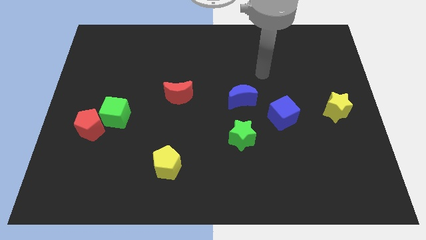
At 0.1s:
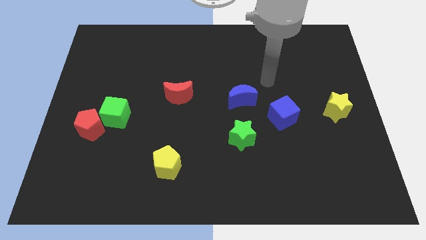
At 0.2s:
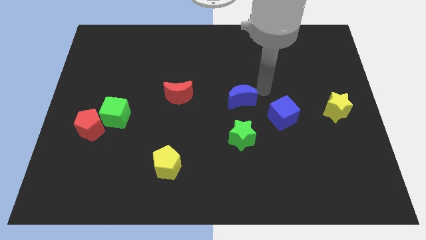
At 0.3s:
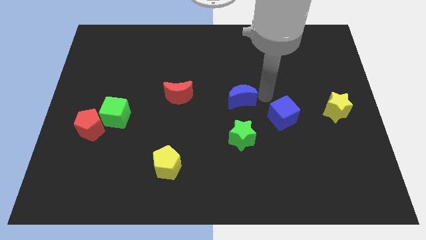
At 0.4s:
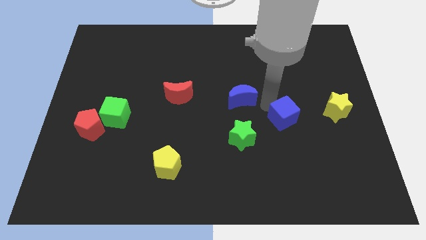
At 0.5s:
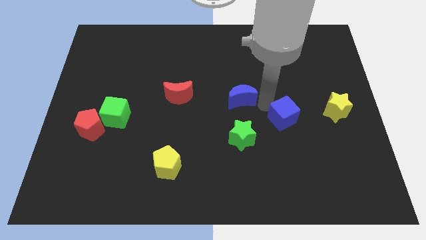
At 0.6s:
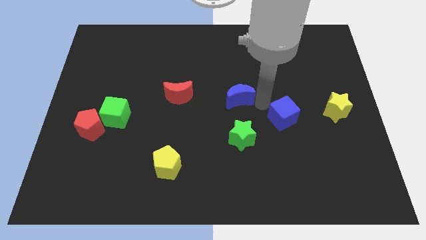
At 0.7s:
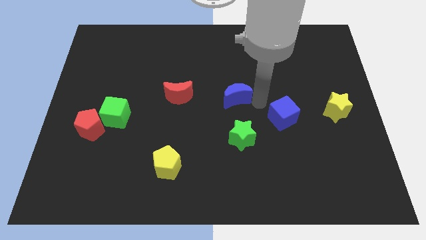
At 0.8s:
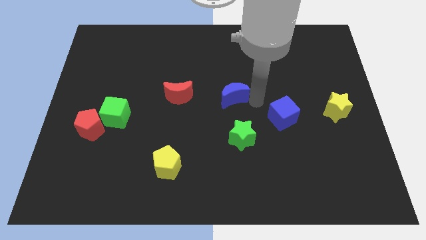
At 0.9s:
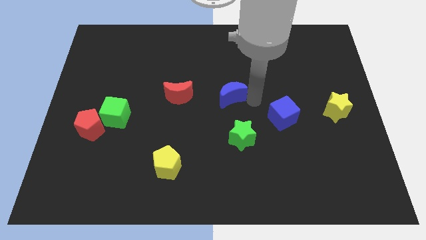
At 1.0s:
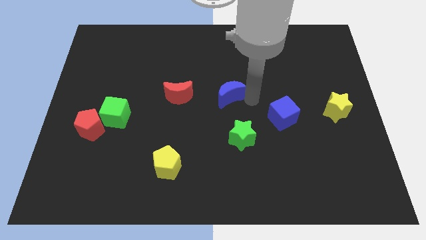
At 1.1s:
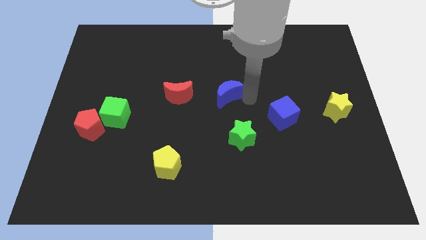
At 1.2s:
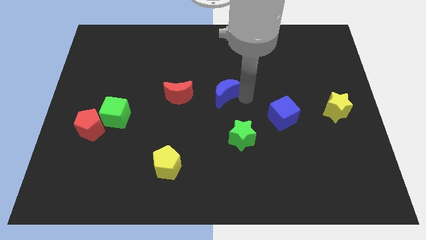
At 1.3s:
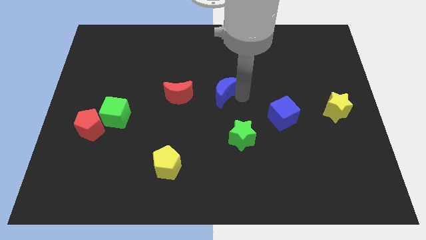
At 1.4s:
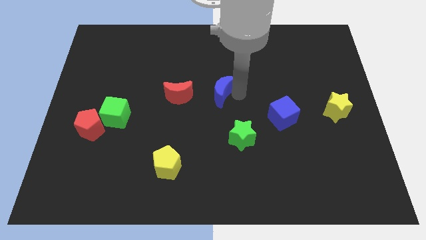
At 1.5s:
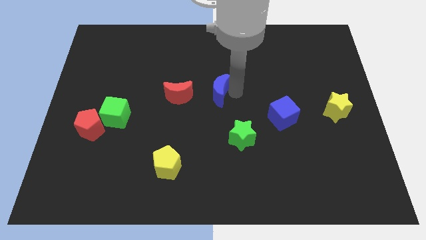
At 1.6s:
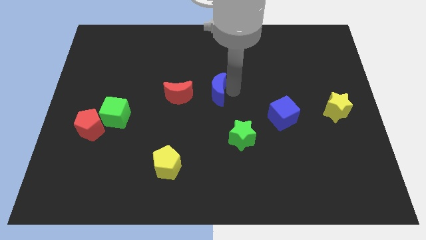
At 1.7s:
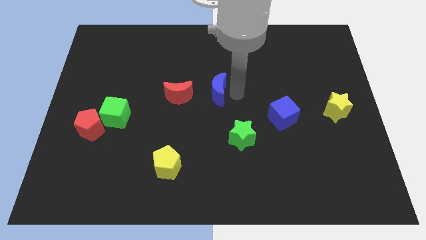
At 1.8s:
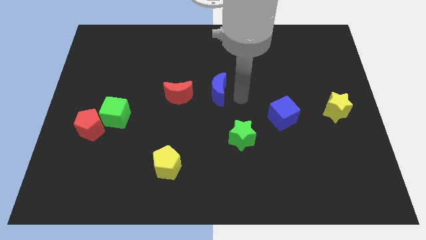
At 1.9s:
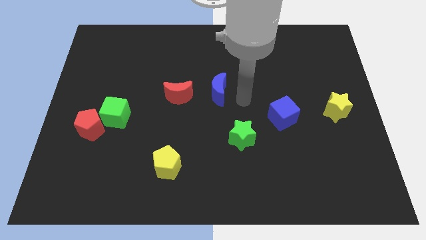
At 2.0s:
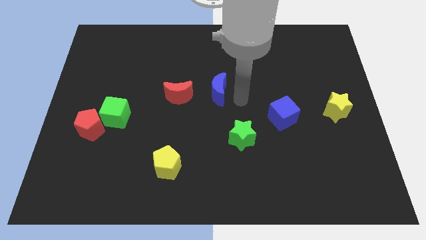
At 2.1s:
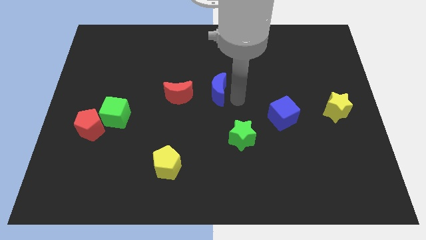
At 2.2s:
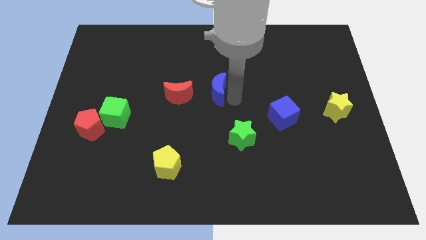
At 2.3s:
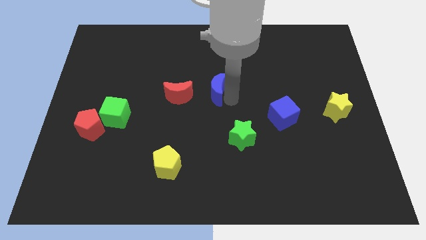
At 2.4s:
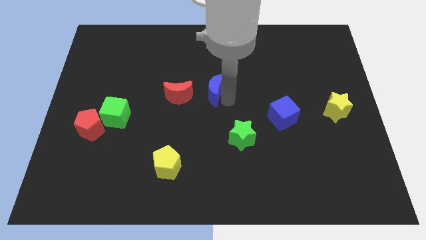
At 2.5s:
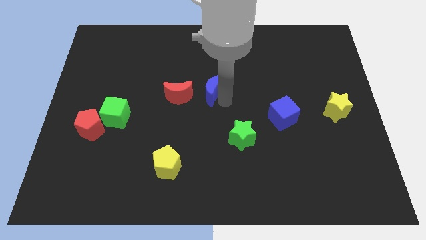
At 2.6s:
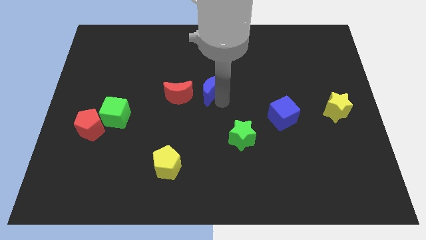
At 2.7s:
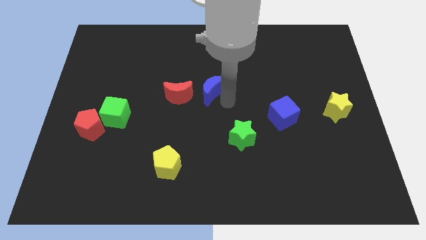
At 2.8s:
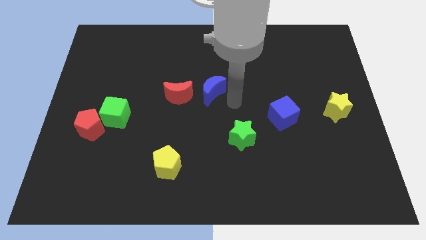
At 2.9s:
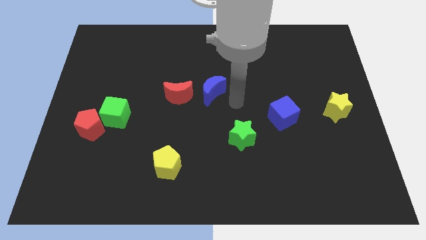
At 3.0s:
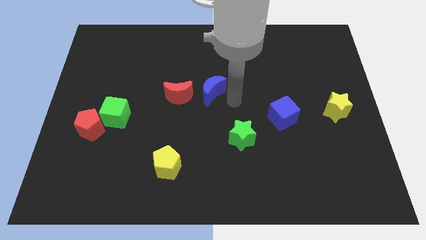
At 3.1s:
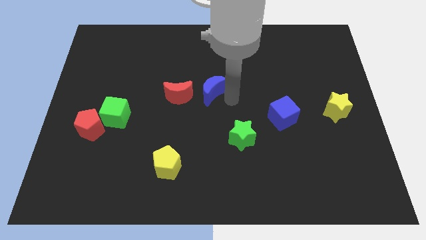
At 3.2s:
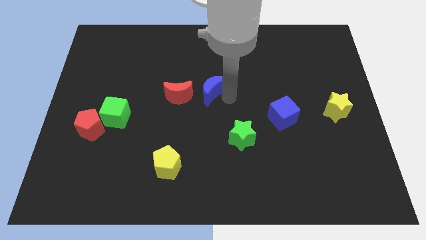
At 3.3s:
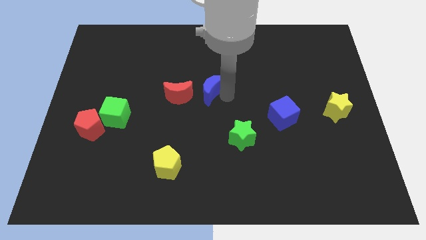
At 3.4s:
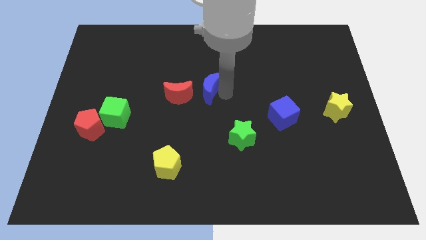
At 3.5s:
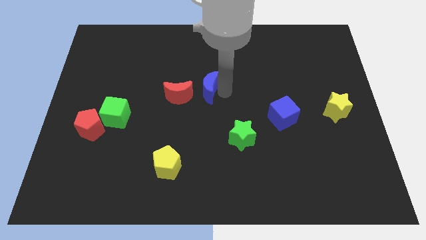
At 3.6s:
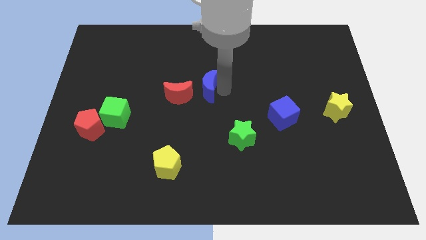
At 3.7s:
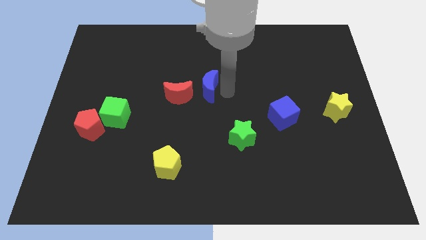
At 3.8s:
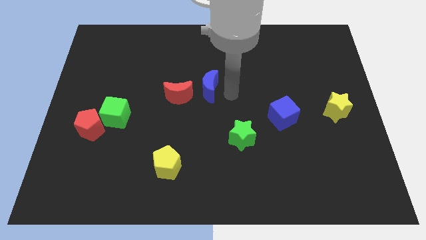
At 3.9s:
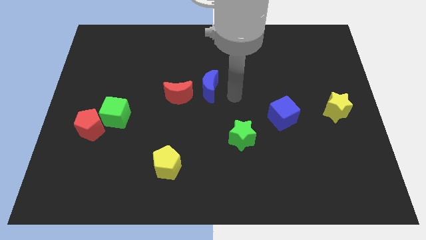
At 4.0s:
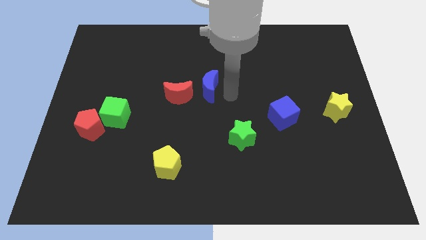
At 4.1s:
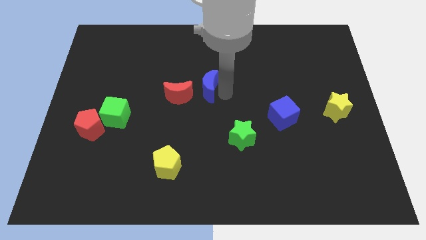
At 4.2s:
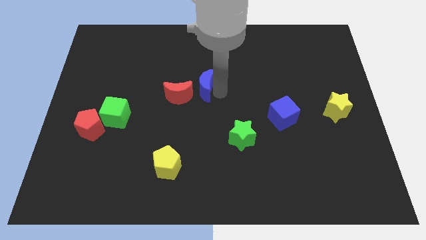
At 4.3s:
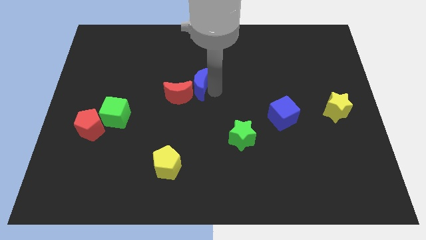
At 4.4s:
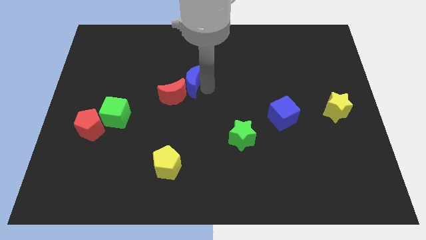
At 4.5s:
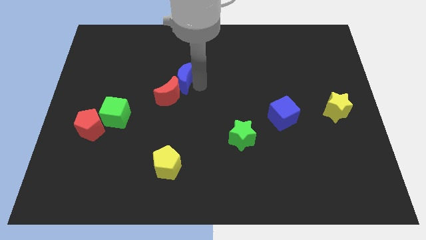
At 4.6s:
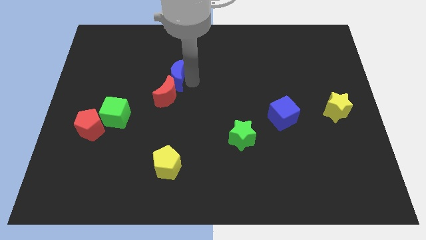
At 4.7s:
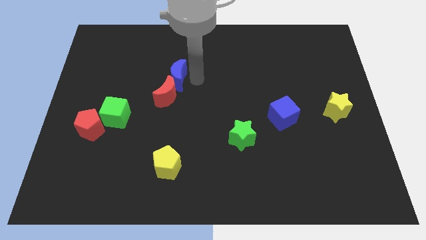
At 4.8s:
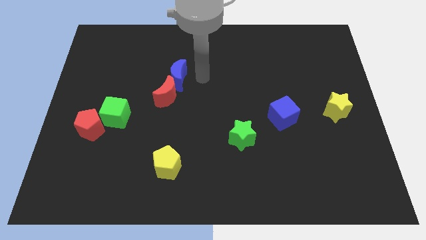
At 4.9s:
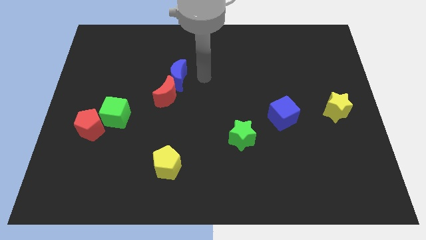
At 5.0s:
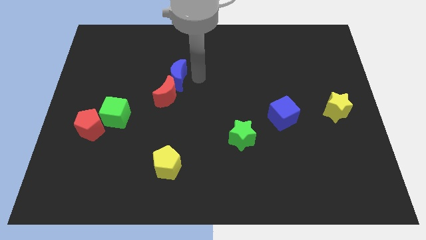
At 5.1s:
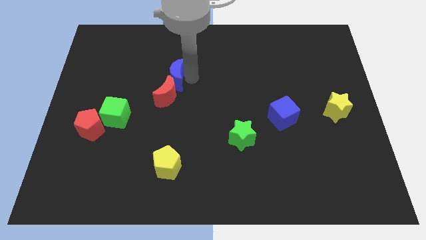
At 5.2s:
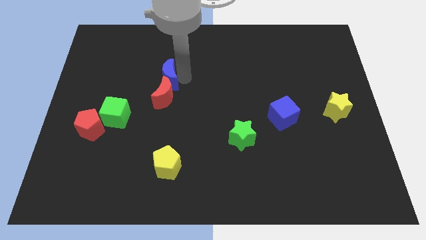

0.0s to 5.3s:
slide the blue moon to the top left side of the red moon

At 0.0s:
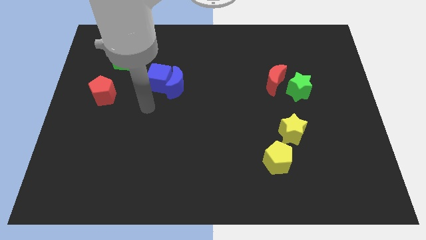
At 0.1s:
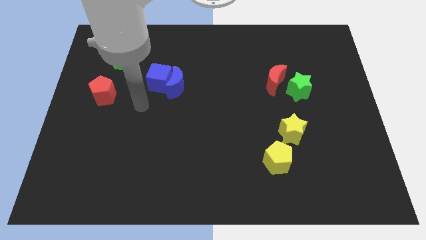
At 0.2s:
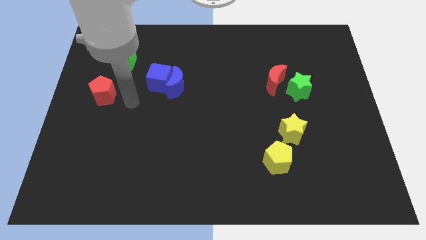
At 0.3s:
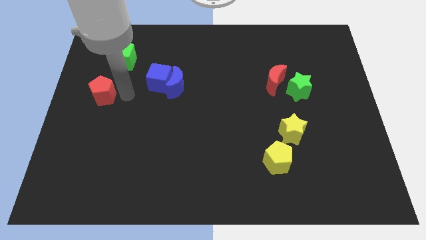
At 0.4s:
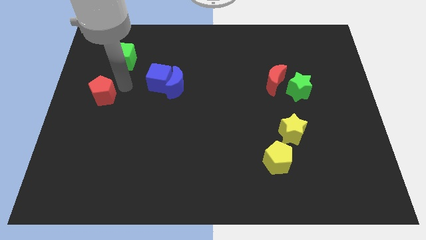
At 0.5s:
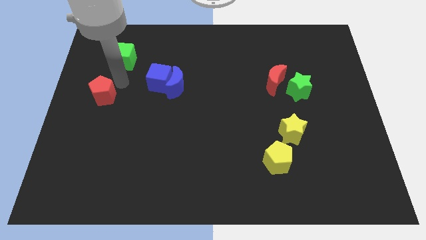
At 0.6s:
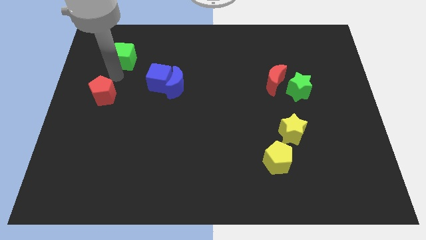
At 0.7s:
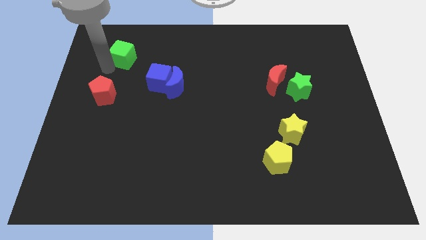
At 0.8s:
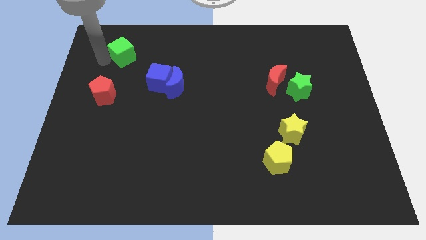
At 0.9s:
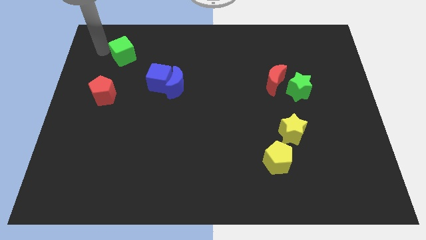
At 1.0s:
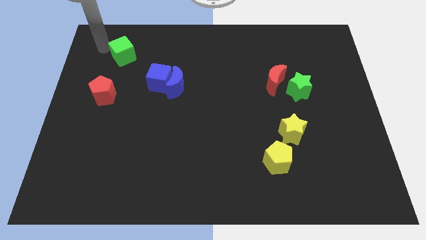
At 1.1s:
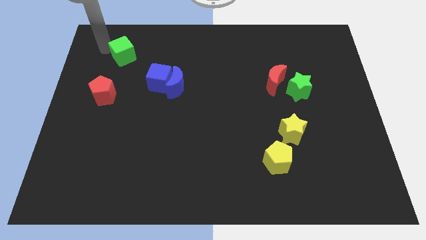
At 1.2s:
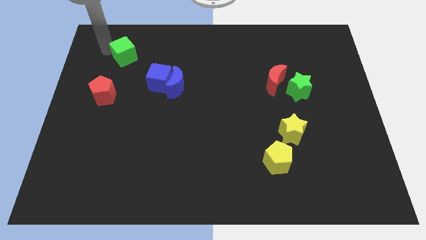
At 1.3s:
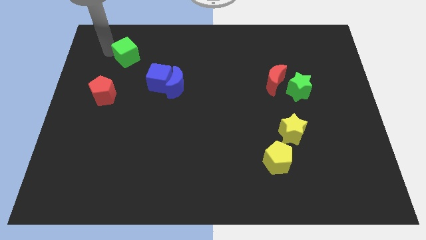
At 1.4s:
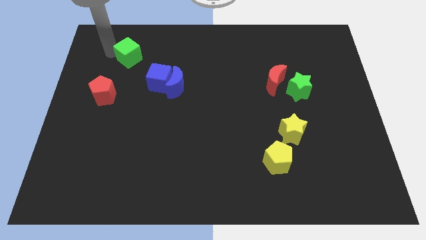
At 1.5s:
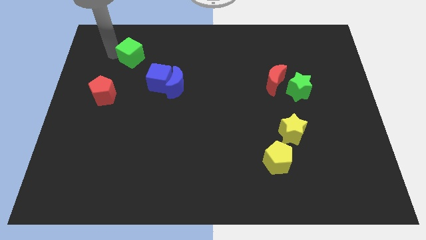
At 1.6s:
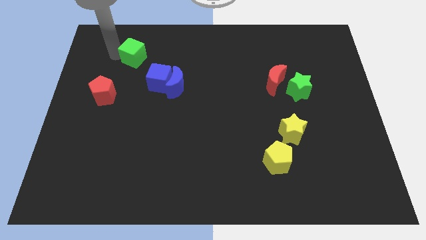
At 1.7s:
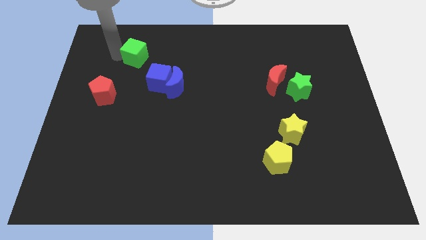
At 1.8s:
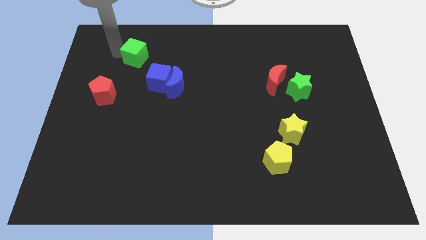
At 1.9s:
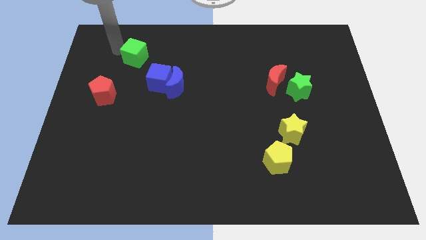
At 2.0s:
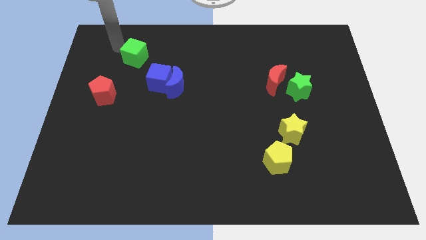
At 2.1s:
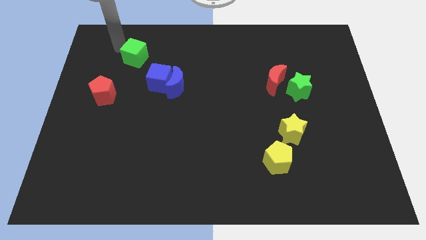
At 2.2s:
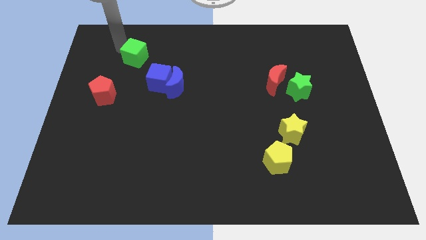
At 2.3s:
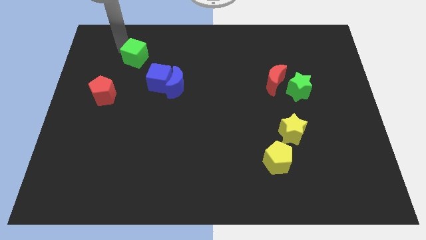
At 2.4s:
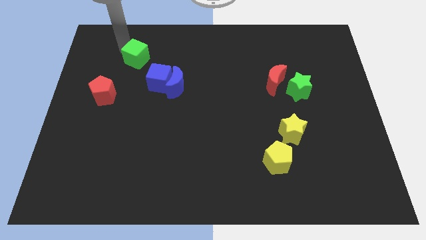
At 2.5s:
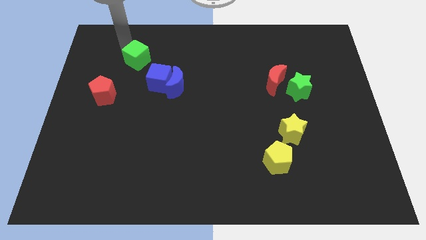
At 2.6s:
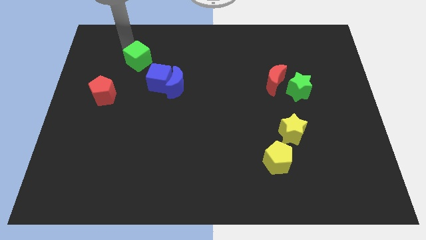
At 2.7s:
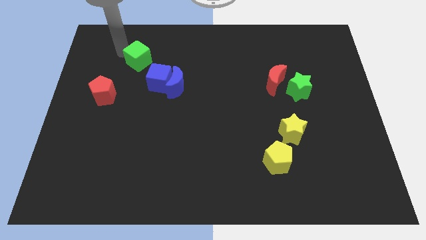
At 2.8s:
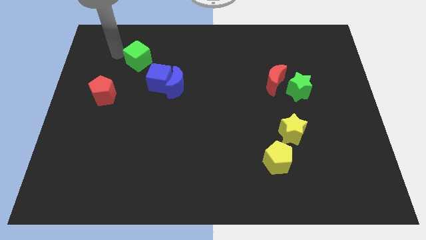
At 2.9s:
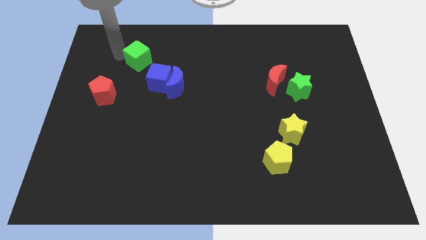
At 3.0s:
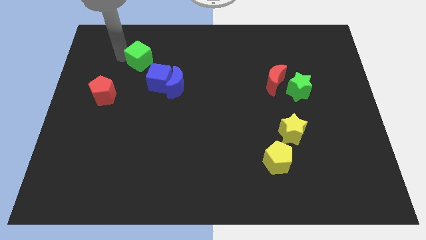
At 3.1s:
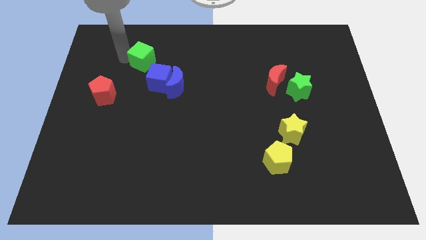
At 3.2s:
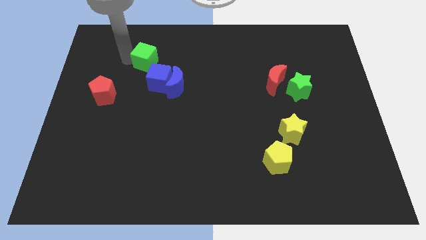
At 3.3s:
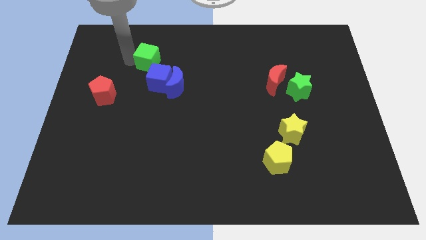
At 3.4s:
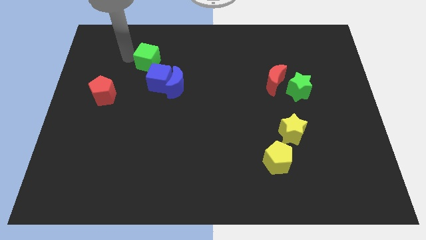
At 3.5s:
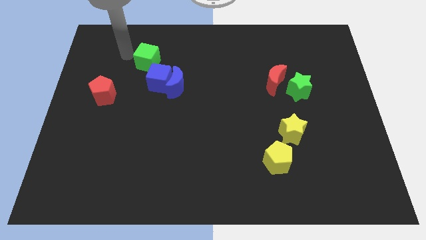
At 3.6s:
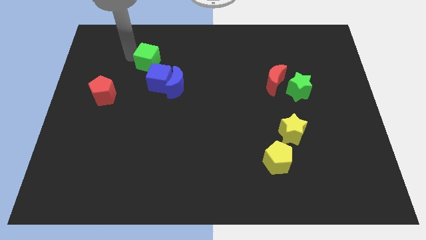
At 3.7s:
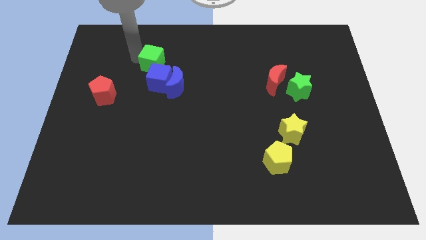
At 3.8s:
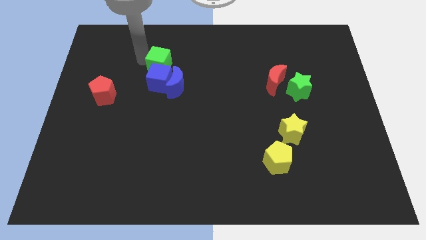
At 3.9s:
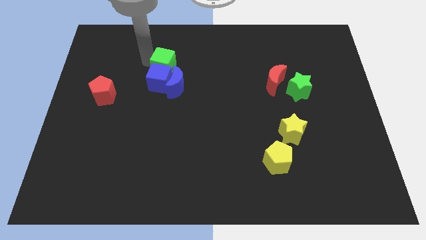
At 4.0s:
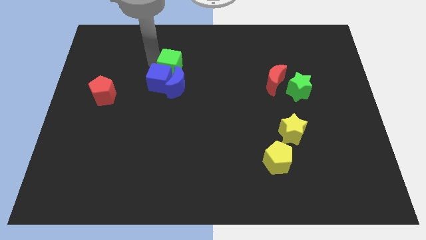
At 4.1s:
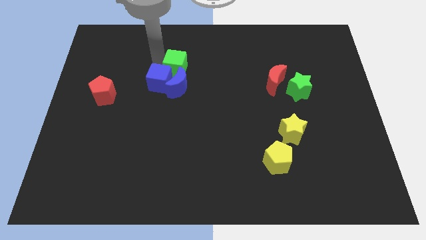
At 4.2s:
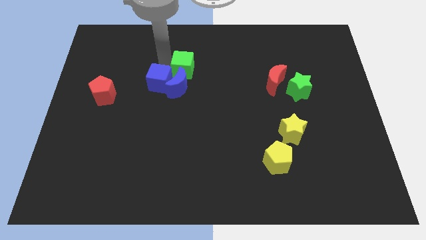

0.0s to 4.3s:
slide the green cube to the top right side of the blue moon
